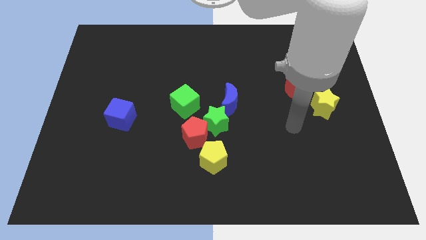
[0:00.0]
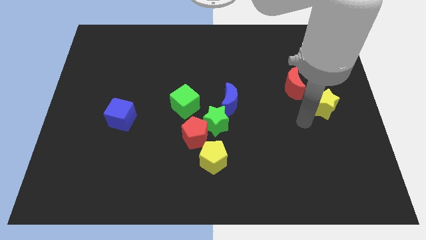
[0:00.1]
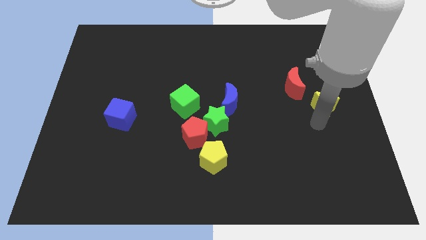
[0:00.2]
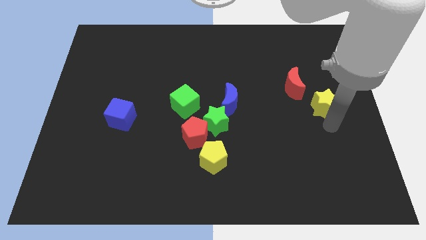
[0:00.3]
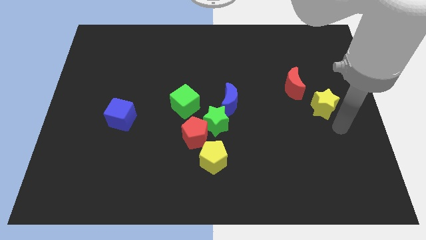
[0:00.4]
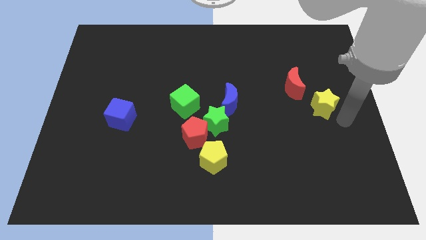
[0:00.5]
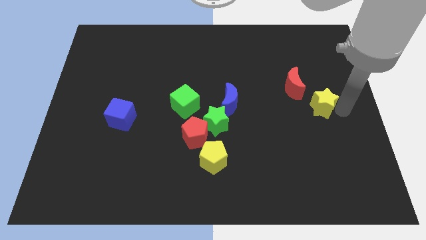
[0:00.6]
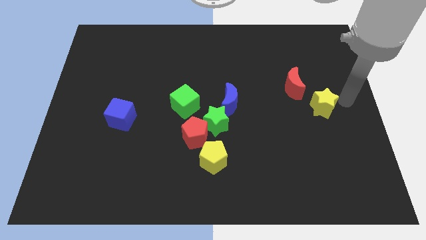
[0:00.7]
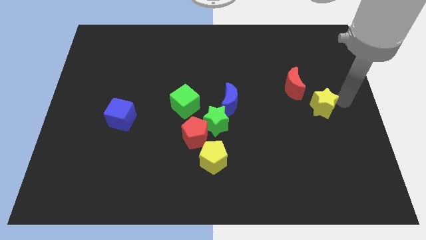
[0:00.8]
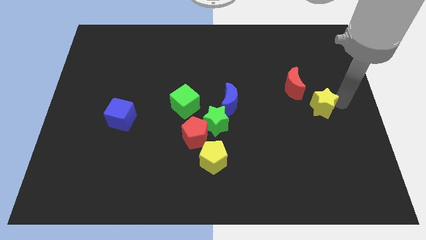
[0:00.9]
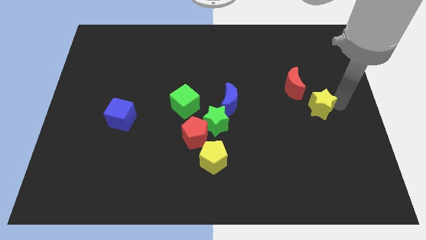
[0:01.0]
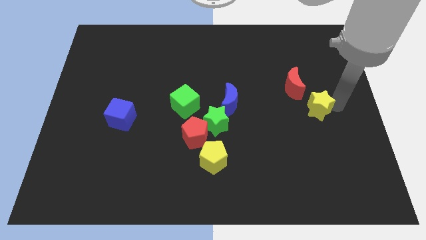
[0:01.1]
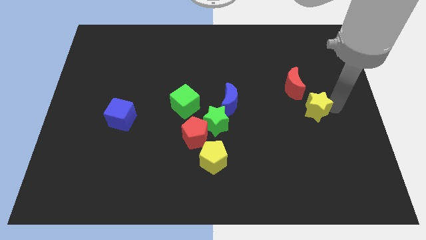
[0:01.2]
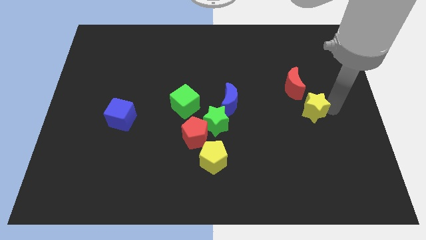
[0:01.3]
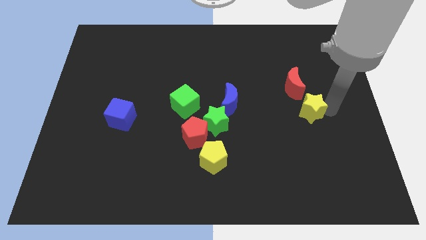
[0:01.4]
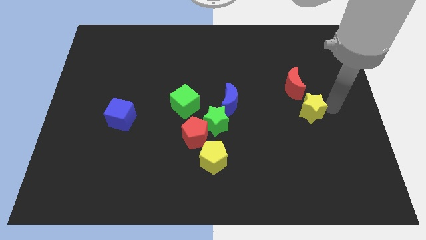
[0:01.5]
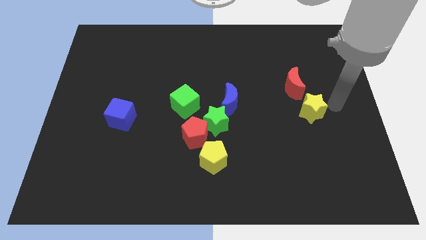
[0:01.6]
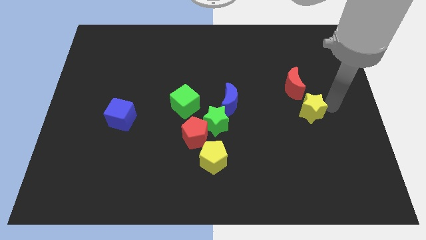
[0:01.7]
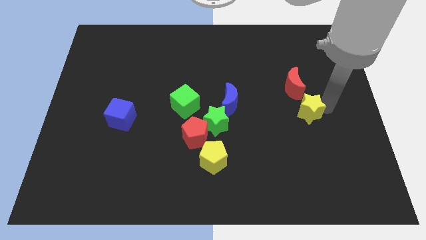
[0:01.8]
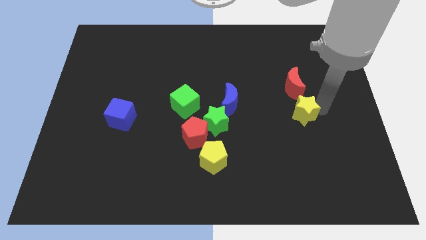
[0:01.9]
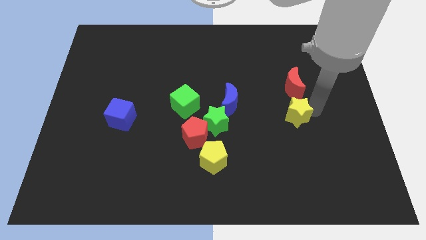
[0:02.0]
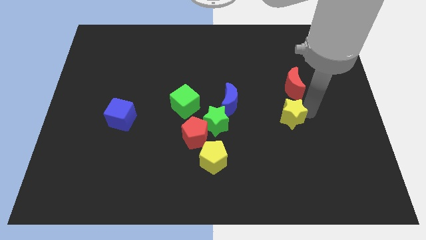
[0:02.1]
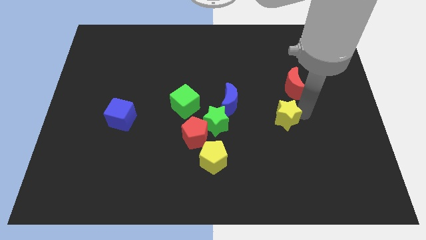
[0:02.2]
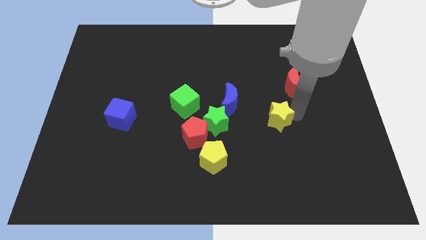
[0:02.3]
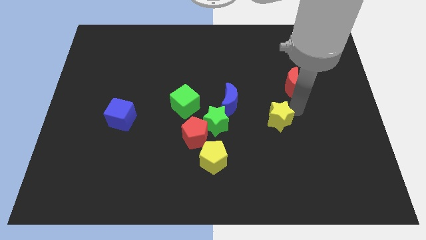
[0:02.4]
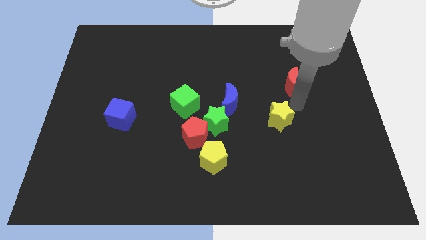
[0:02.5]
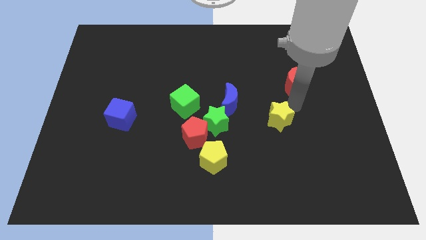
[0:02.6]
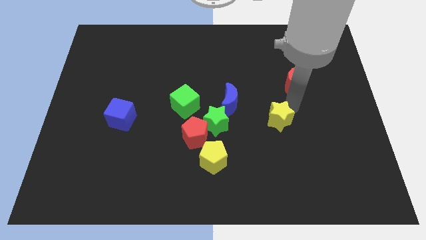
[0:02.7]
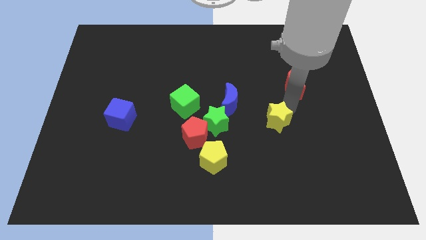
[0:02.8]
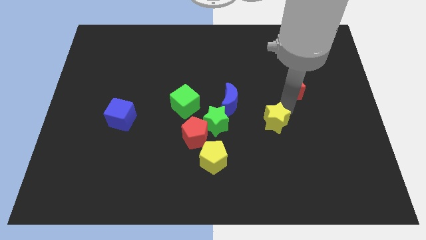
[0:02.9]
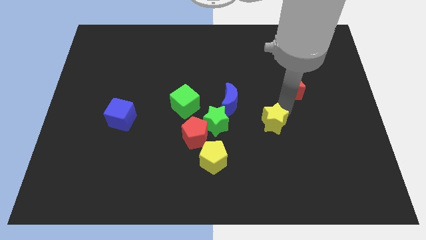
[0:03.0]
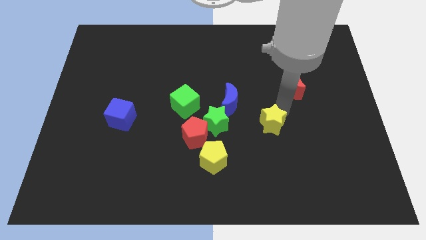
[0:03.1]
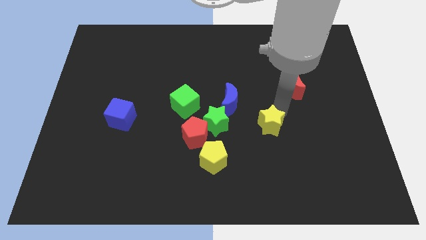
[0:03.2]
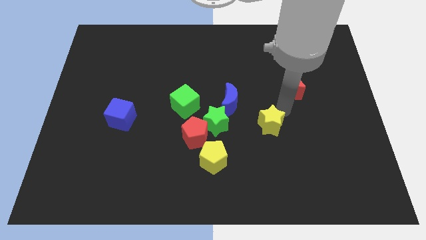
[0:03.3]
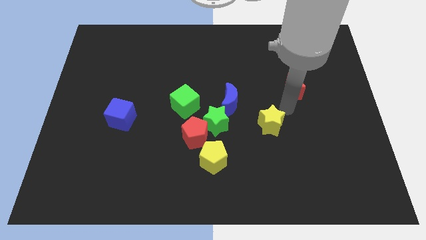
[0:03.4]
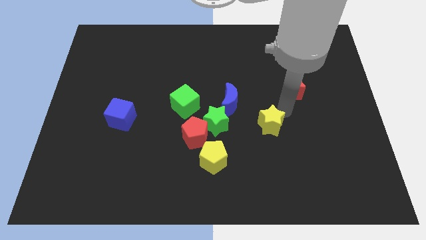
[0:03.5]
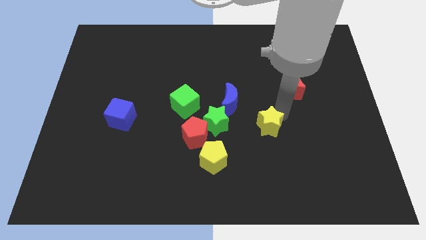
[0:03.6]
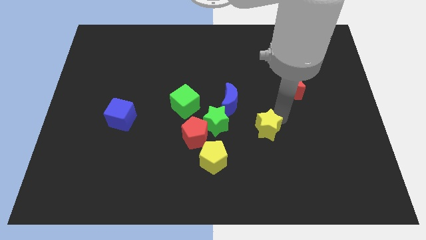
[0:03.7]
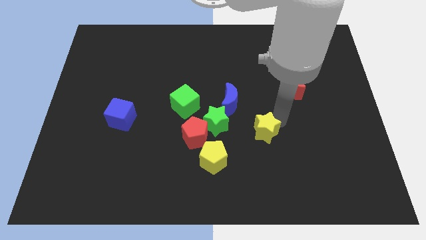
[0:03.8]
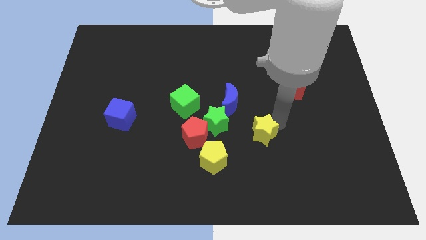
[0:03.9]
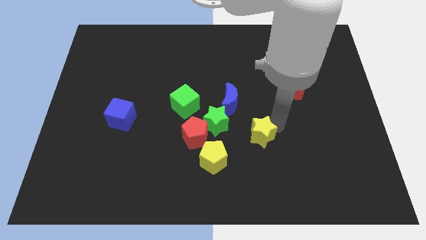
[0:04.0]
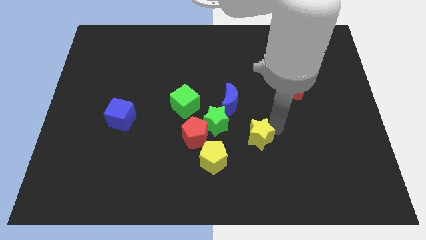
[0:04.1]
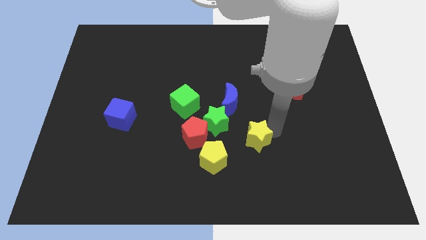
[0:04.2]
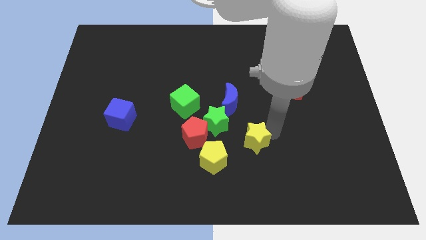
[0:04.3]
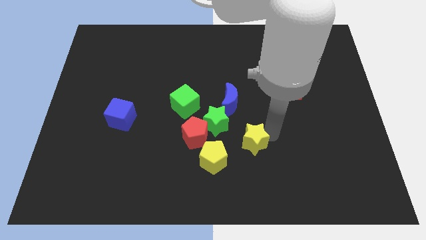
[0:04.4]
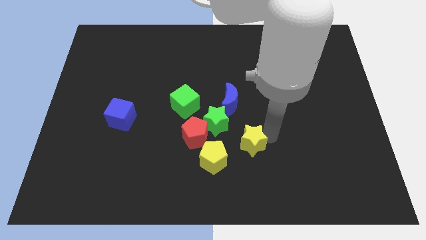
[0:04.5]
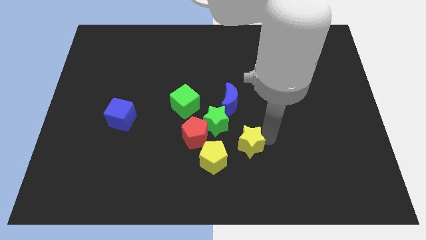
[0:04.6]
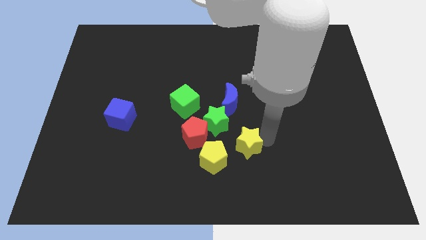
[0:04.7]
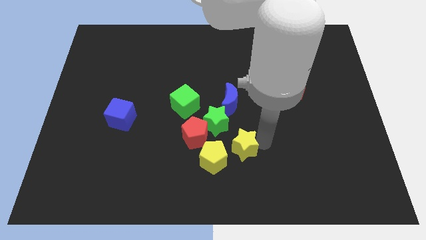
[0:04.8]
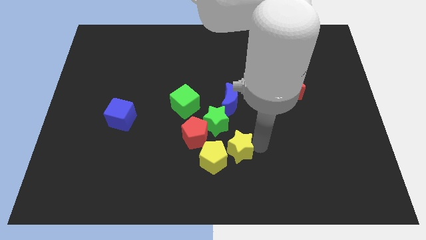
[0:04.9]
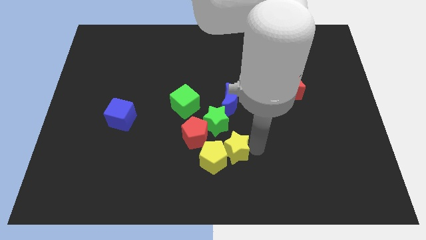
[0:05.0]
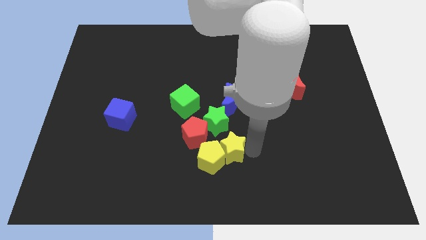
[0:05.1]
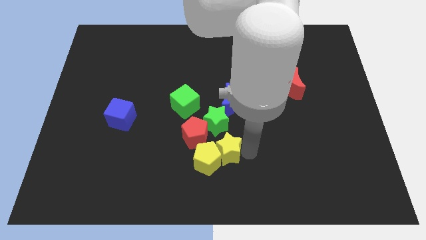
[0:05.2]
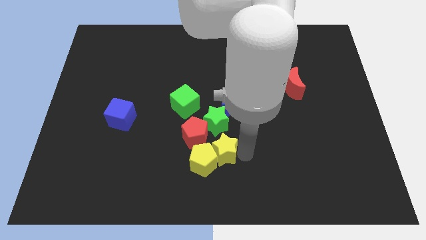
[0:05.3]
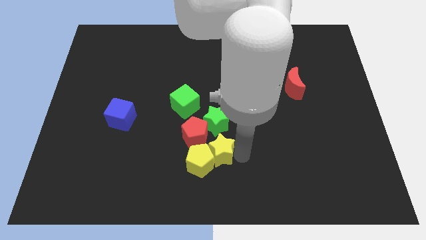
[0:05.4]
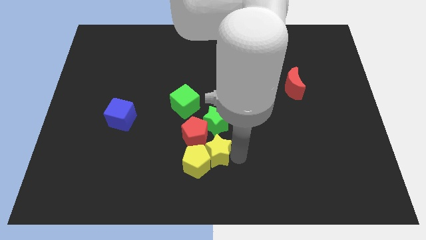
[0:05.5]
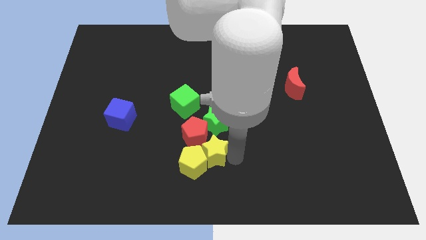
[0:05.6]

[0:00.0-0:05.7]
slide the yellow star close to the red pentagon

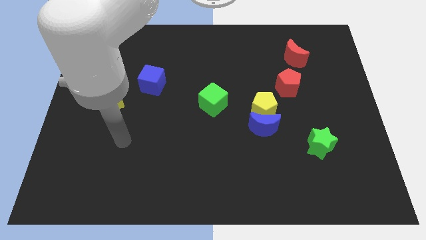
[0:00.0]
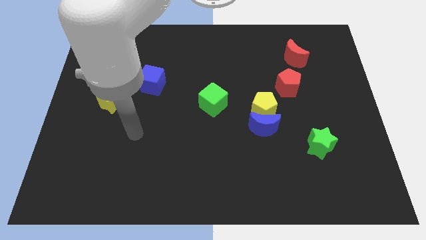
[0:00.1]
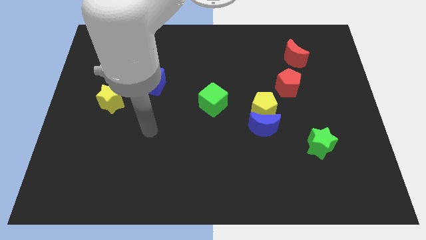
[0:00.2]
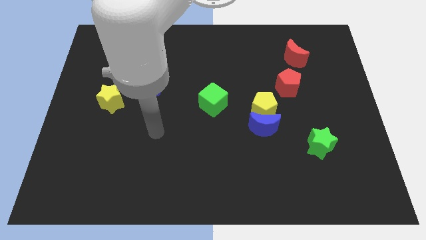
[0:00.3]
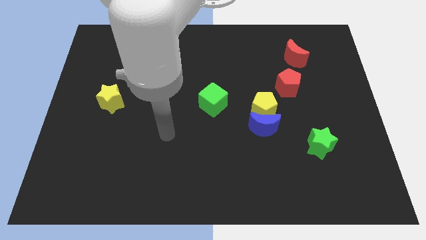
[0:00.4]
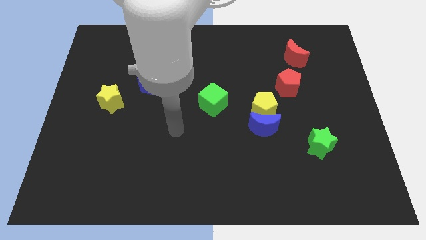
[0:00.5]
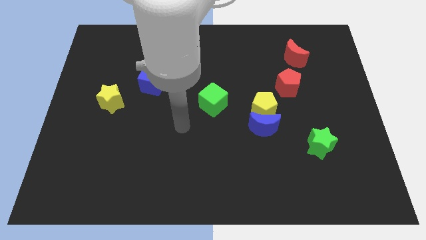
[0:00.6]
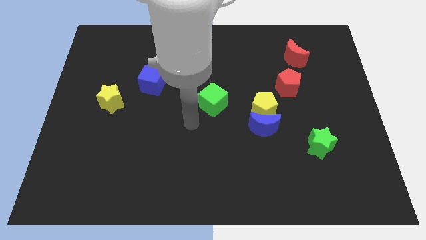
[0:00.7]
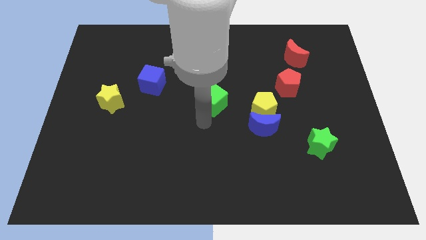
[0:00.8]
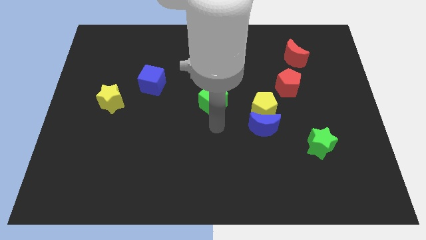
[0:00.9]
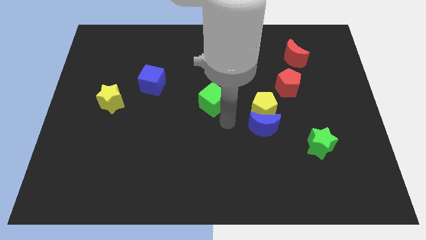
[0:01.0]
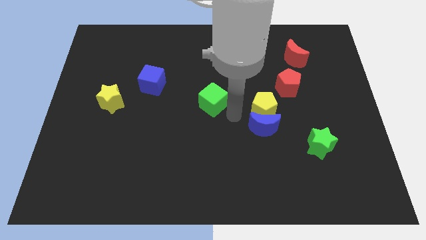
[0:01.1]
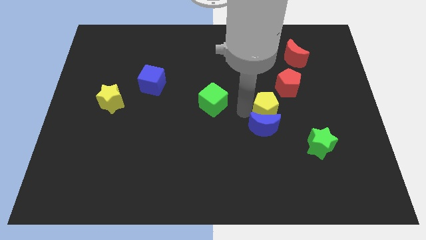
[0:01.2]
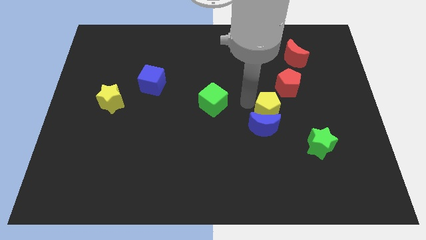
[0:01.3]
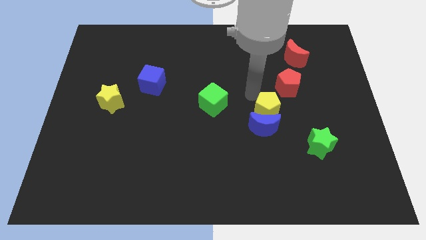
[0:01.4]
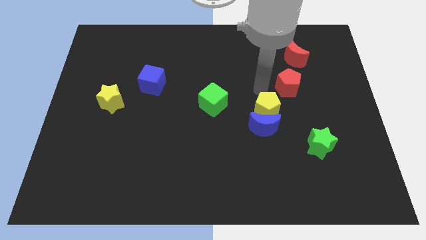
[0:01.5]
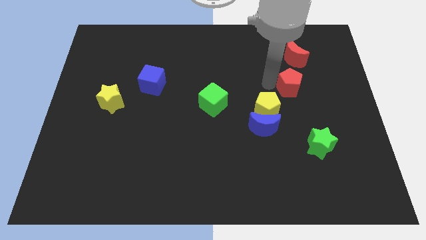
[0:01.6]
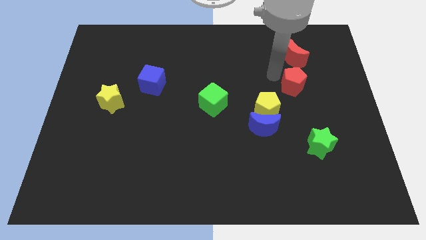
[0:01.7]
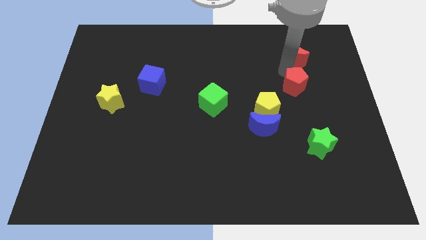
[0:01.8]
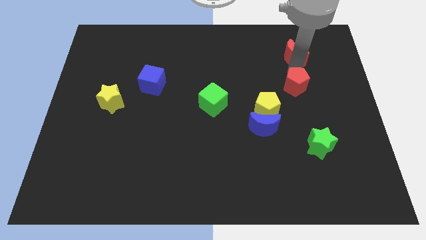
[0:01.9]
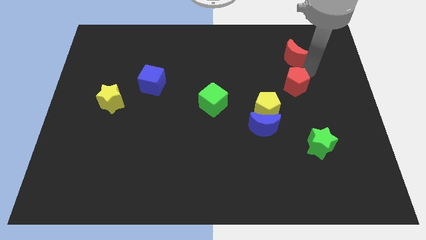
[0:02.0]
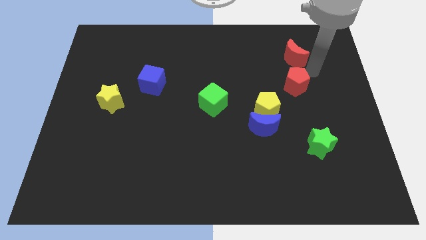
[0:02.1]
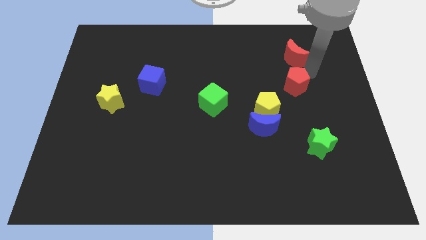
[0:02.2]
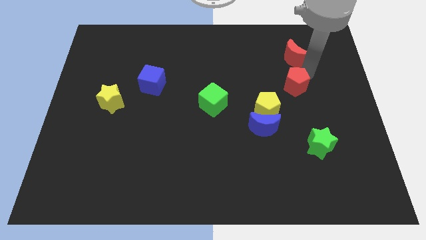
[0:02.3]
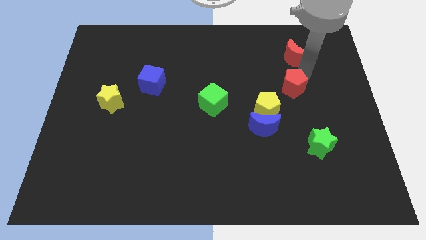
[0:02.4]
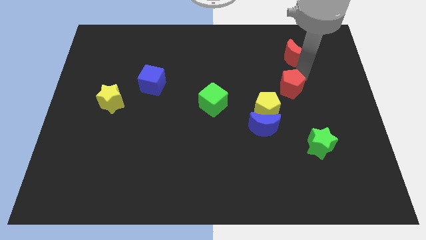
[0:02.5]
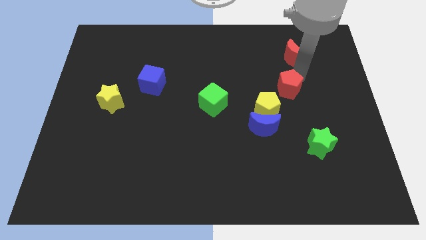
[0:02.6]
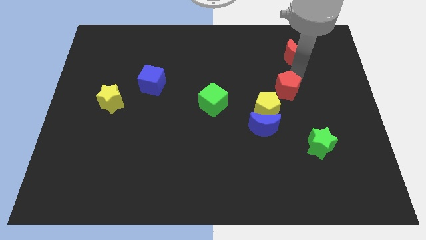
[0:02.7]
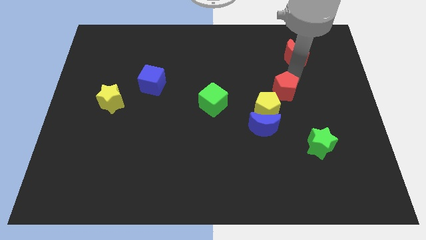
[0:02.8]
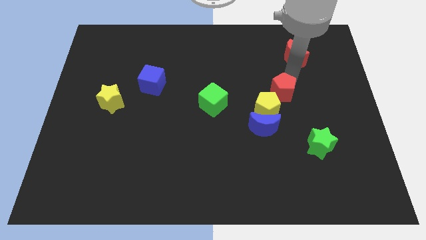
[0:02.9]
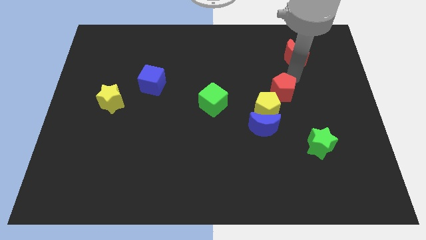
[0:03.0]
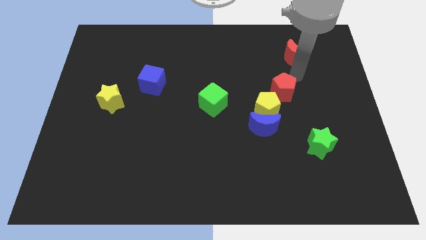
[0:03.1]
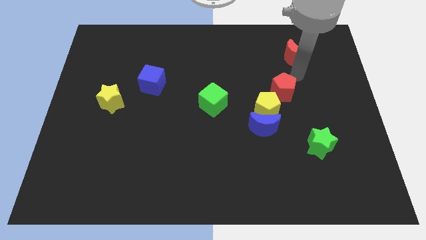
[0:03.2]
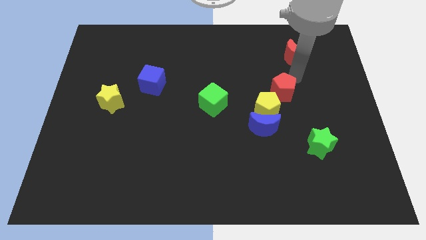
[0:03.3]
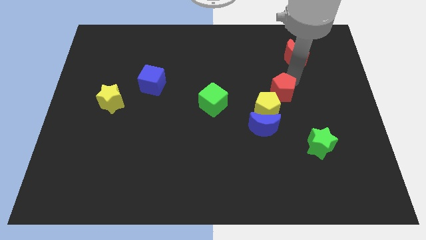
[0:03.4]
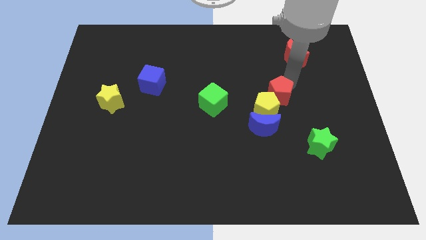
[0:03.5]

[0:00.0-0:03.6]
put the red pentagon towards the yellow pentagon
